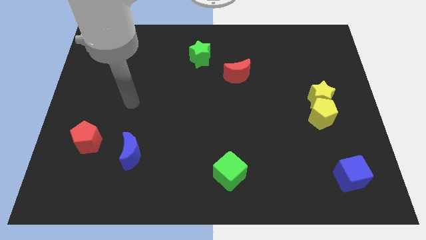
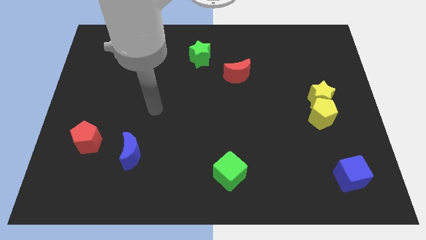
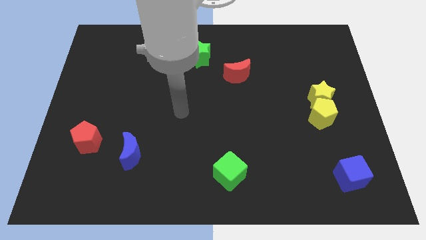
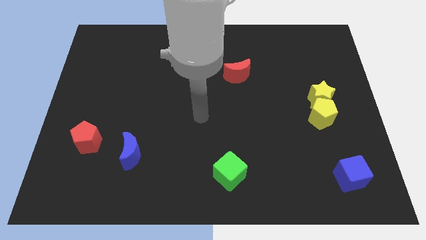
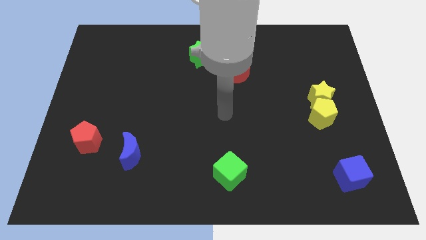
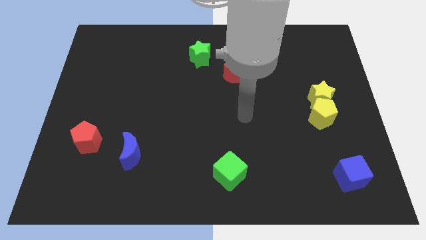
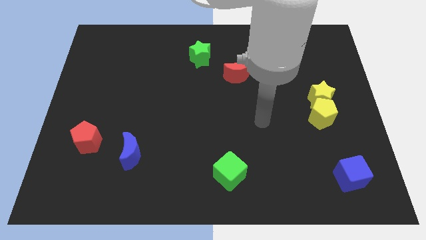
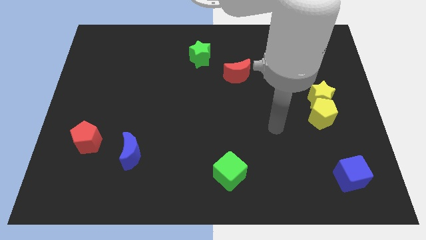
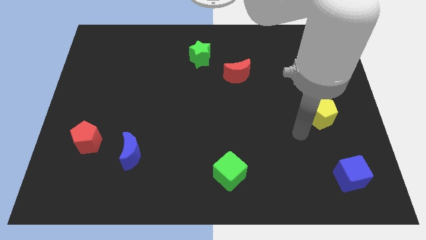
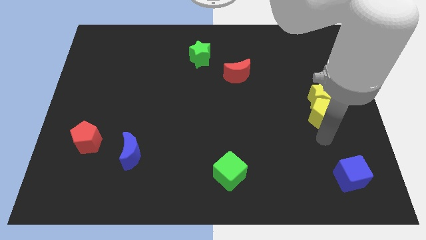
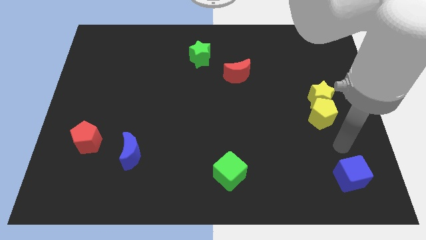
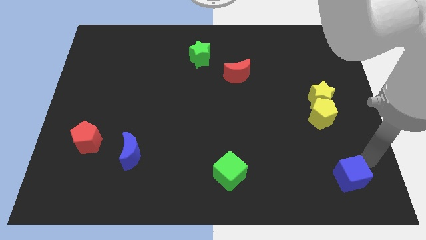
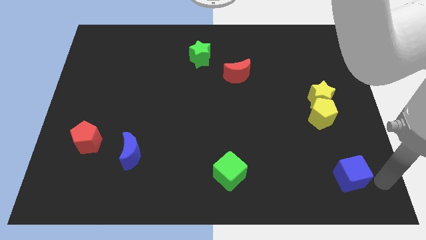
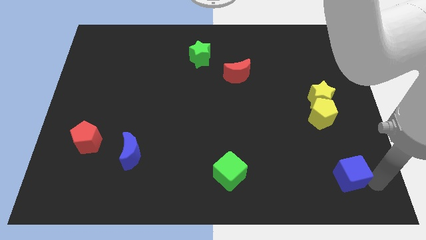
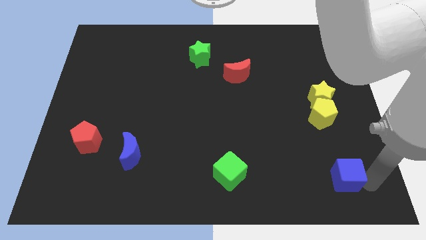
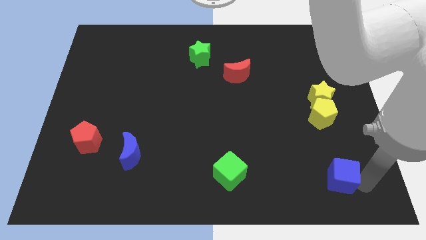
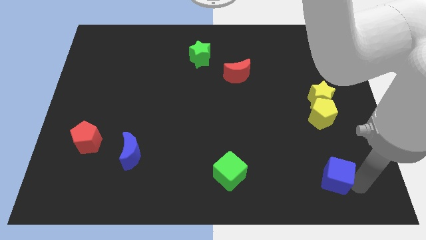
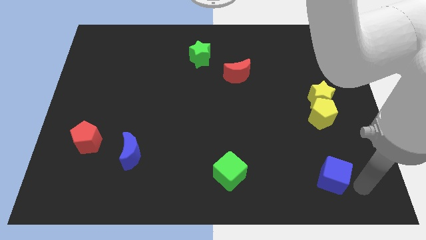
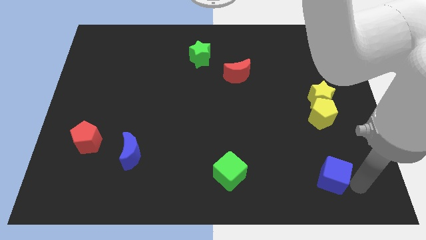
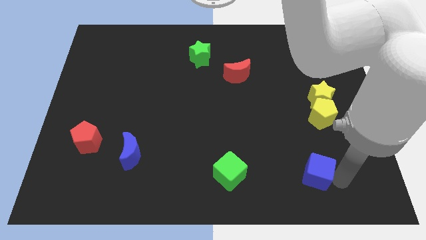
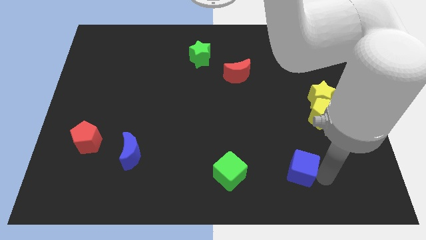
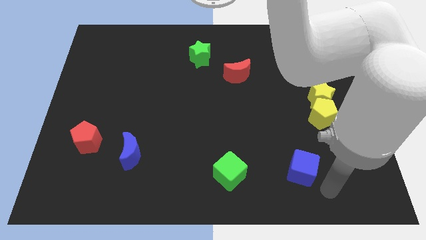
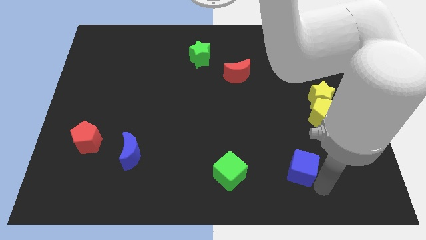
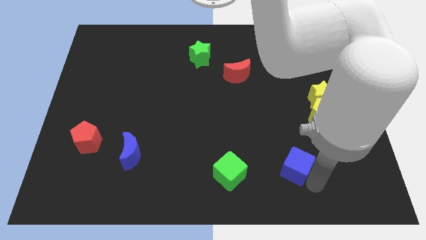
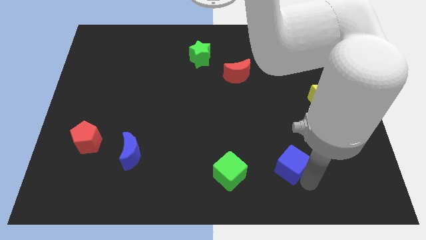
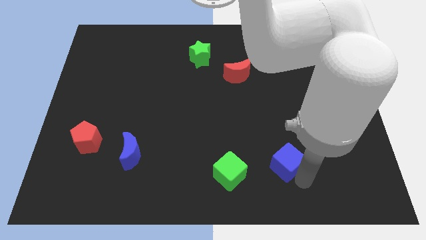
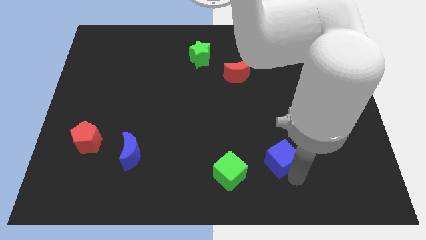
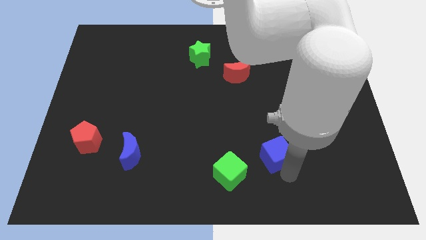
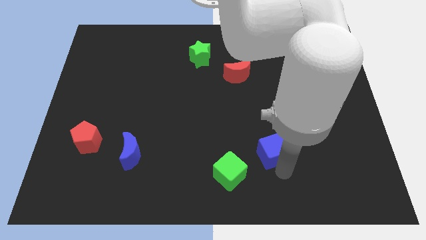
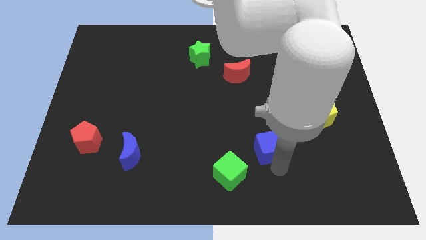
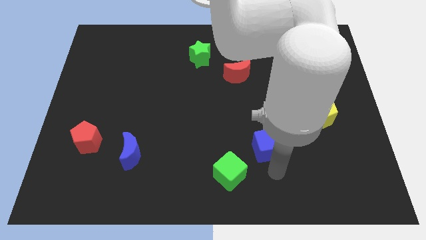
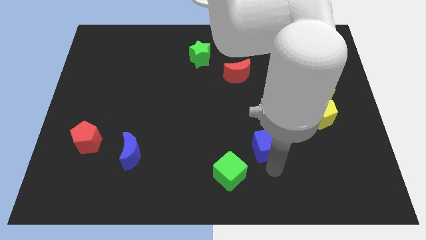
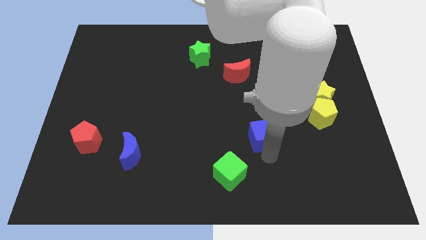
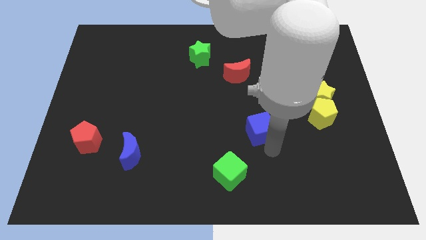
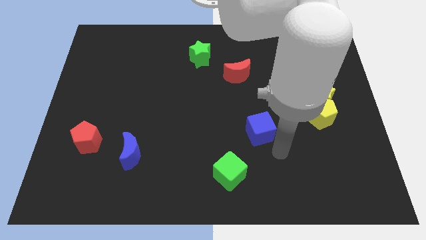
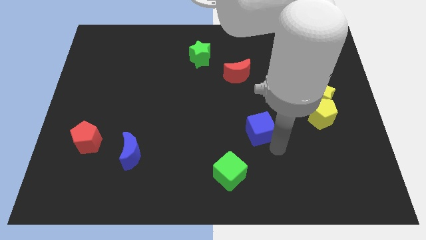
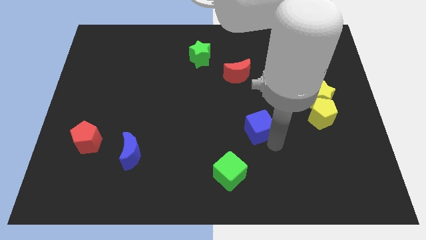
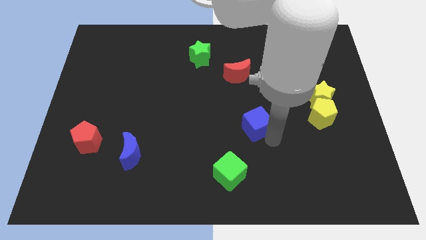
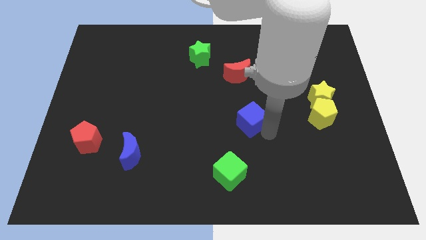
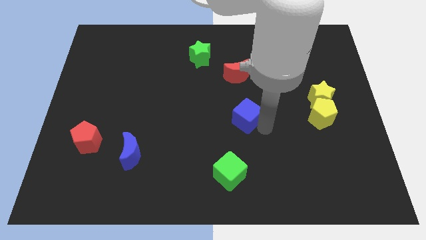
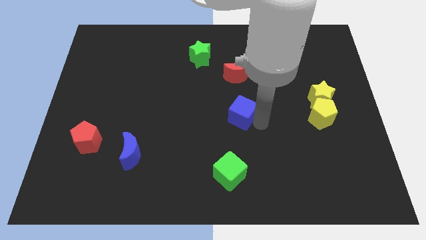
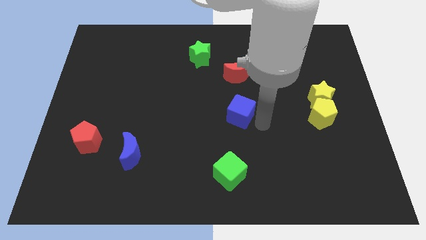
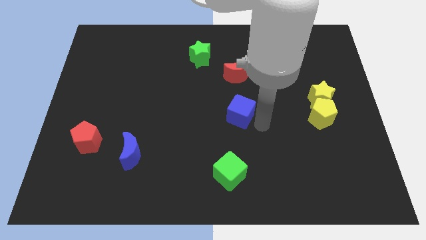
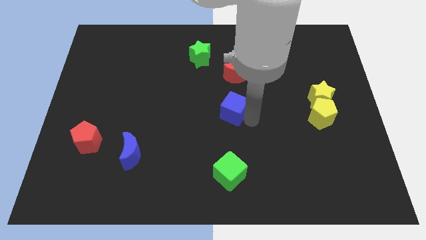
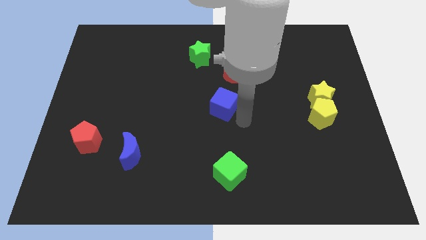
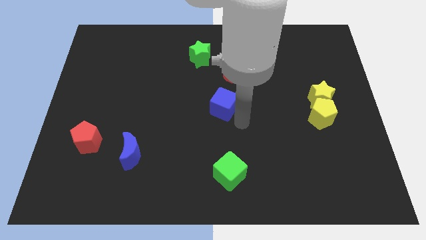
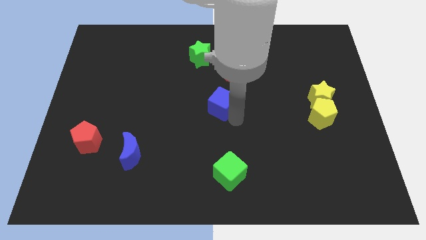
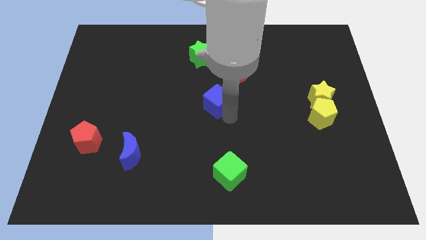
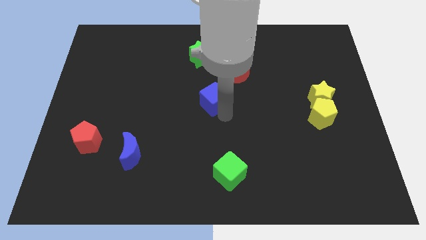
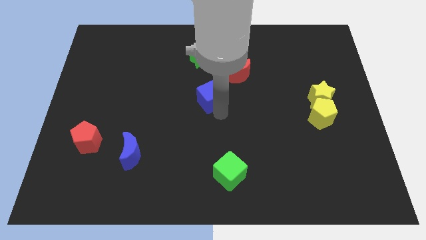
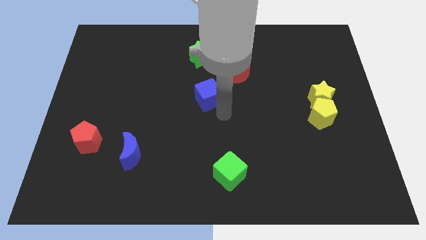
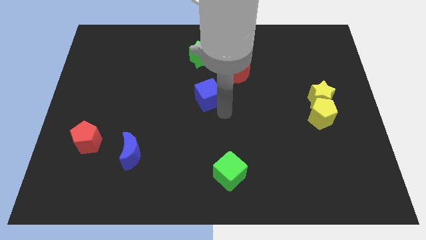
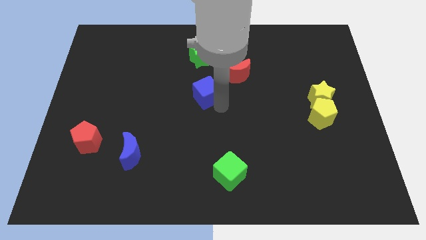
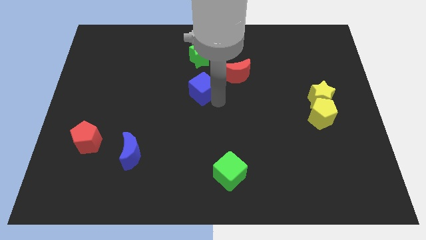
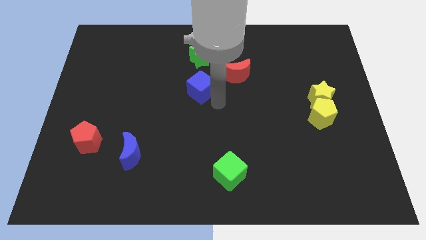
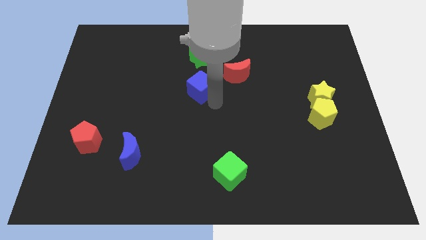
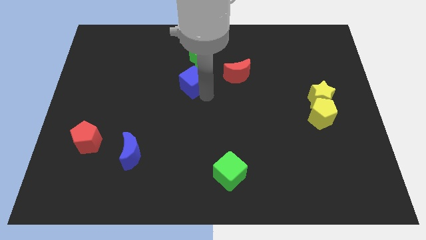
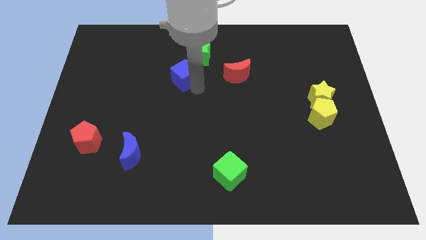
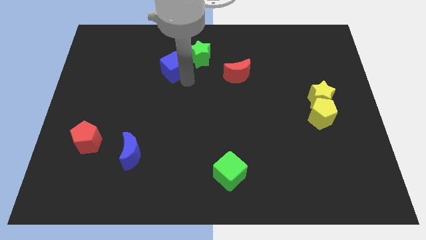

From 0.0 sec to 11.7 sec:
move the blue cube left of the green star

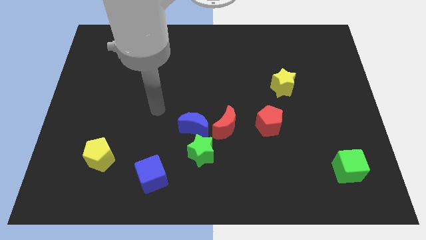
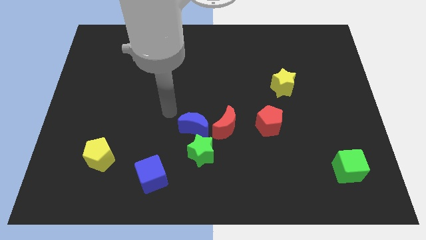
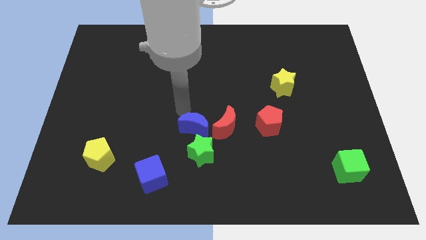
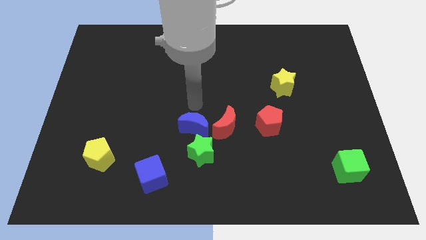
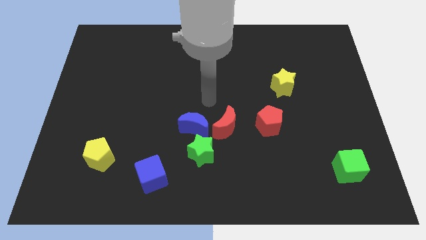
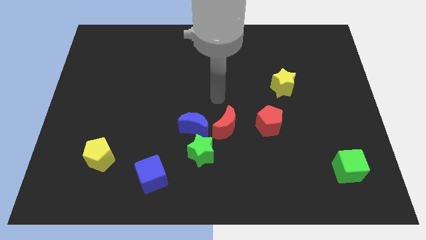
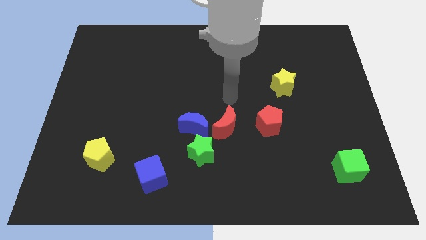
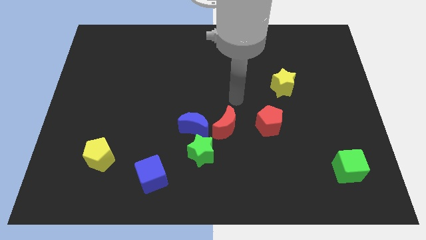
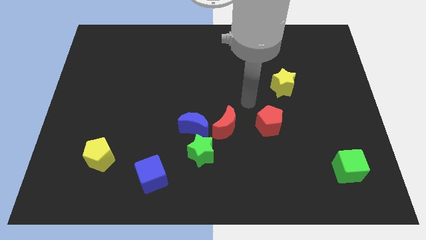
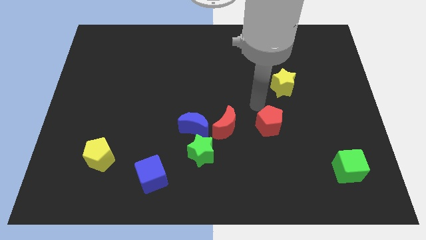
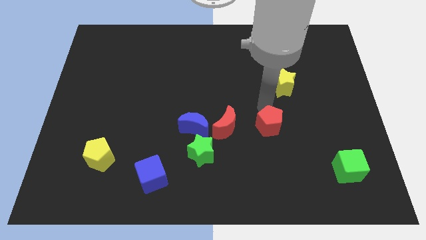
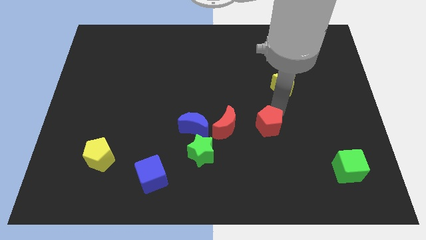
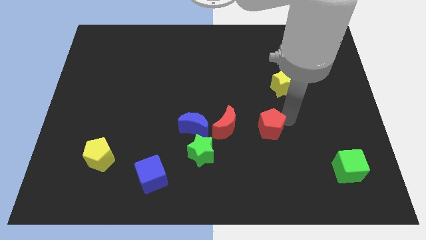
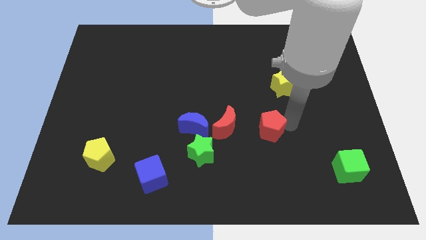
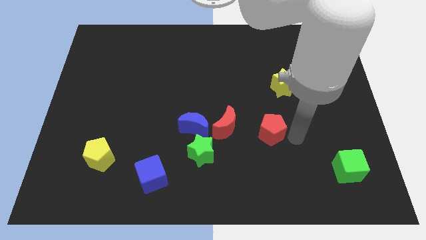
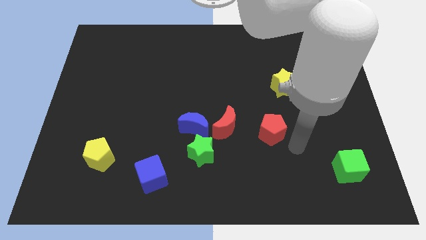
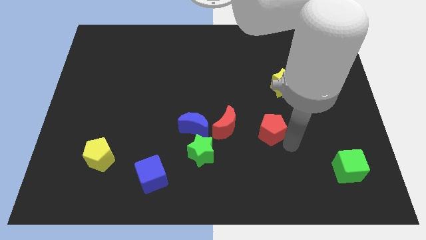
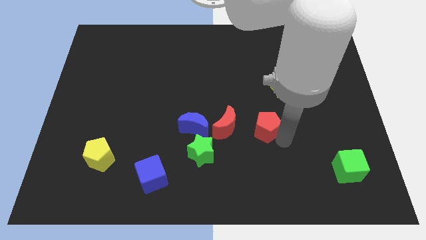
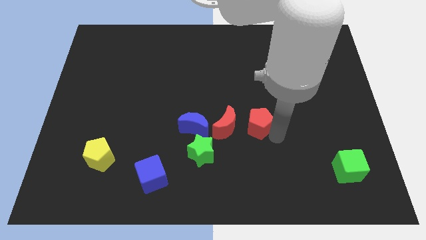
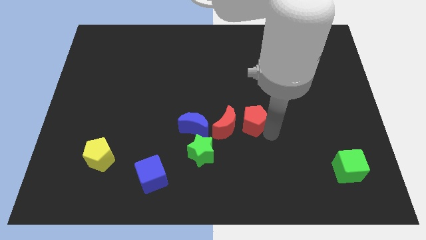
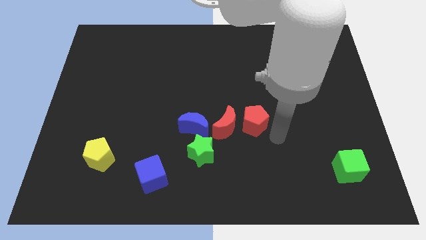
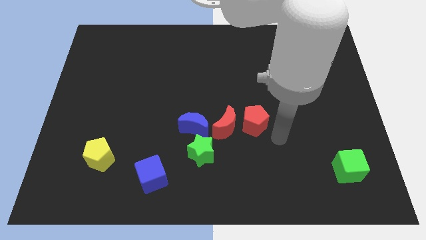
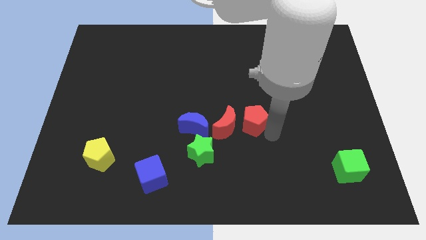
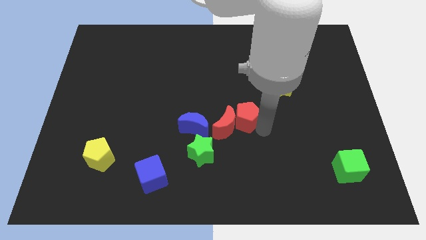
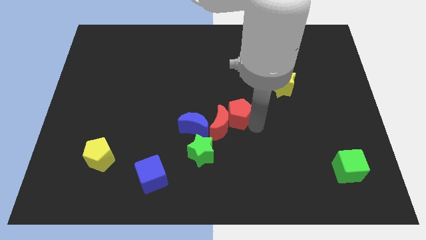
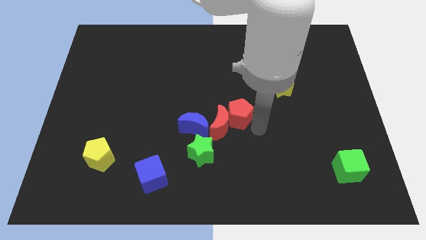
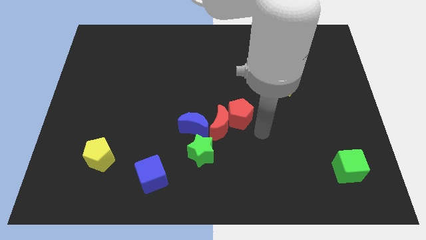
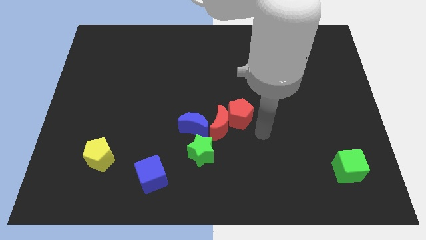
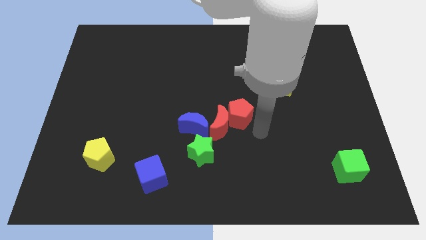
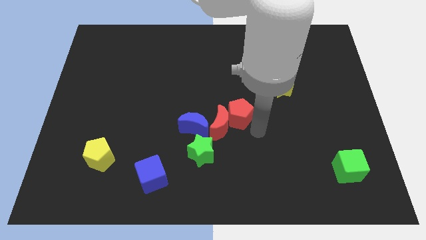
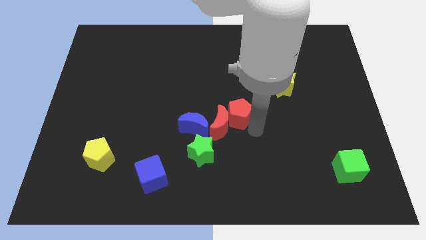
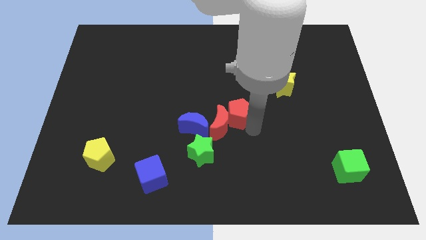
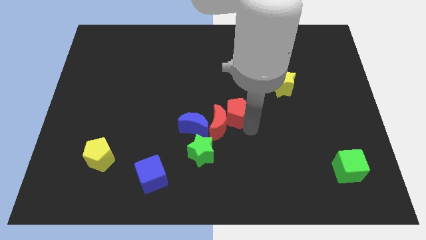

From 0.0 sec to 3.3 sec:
push the red pentagon diagonally up and to the right of the blue moon
